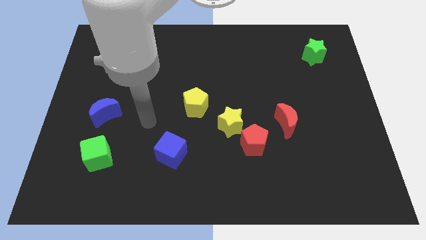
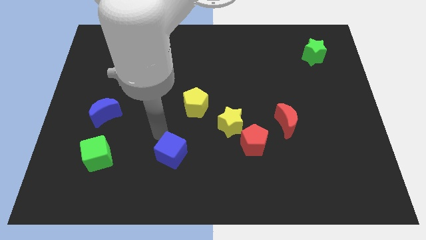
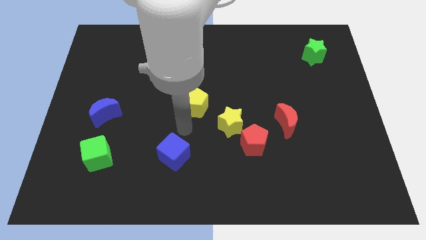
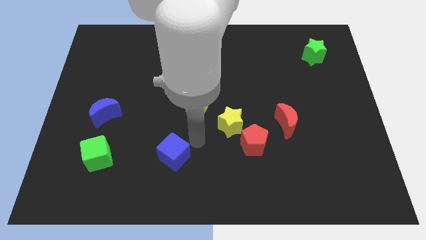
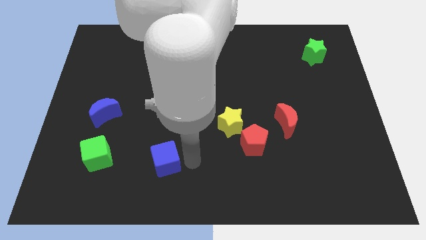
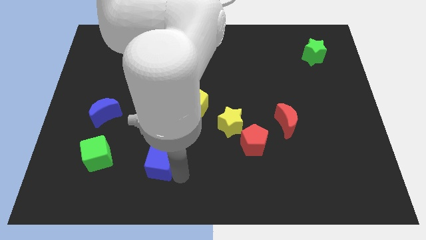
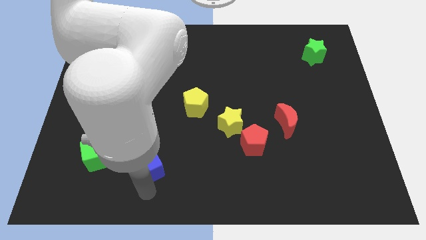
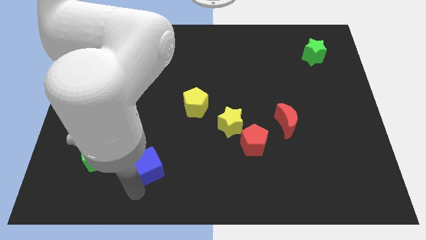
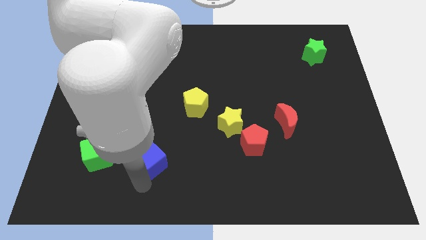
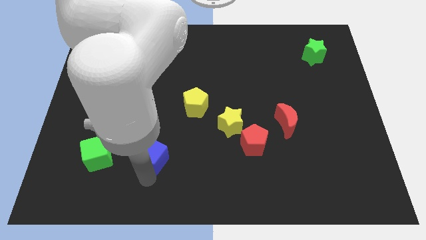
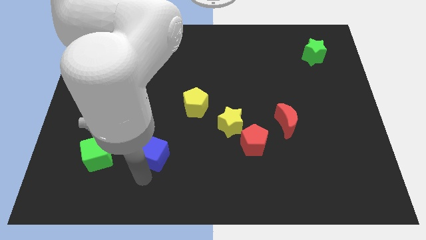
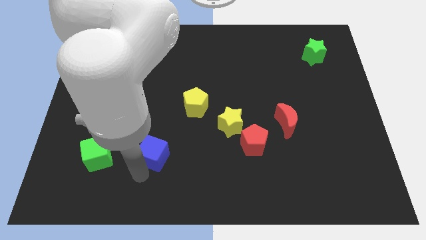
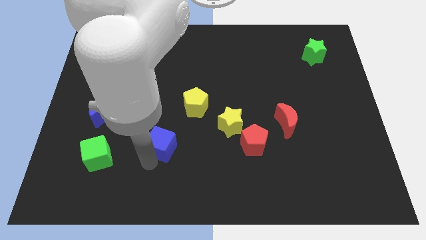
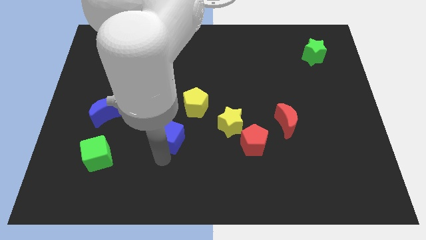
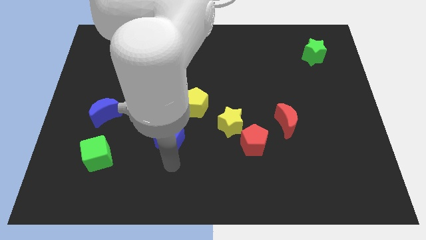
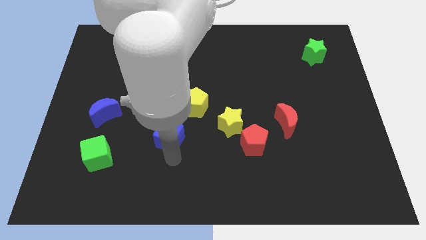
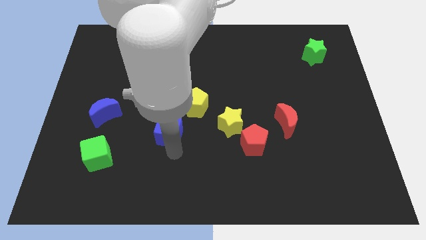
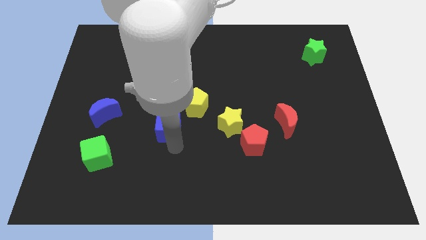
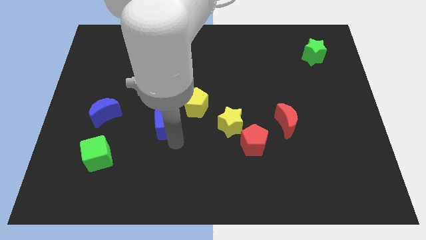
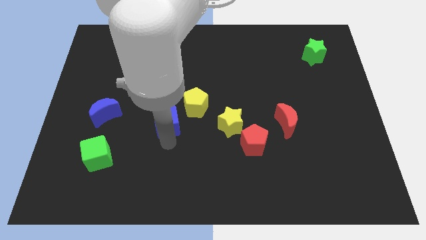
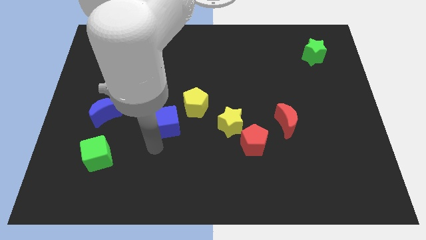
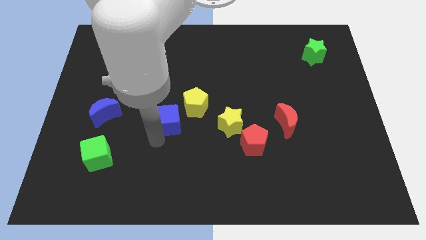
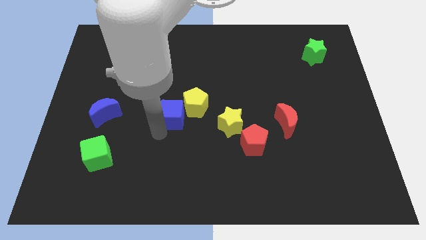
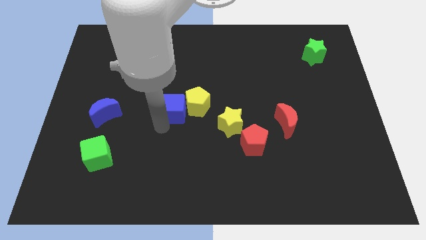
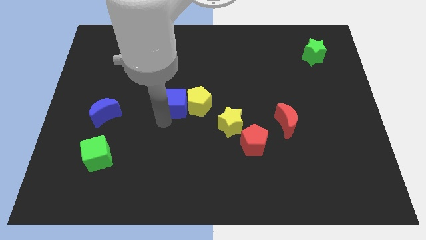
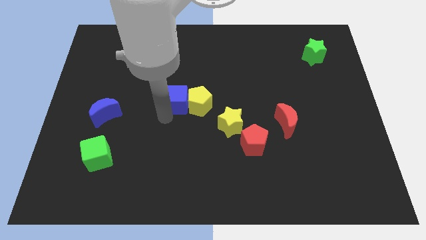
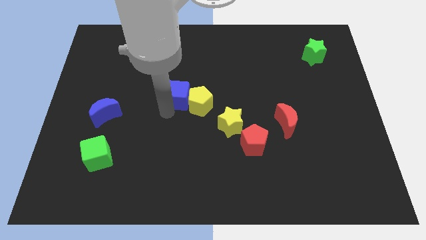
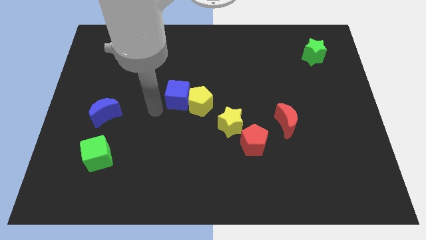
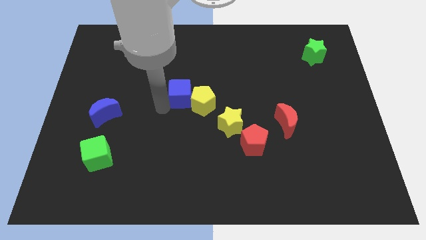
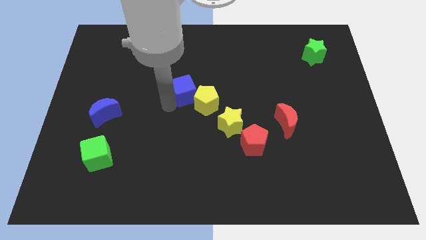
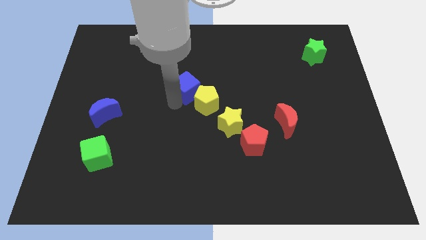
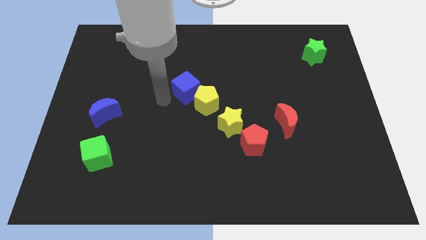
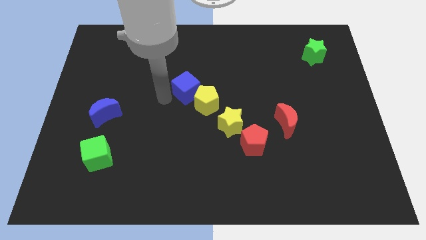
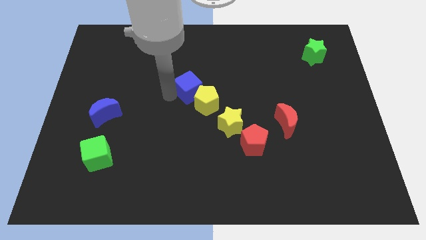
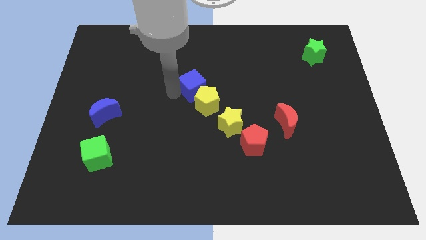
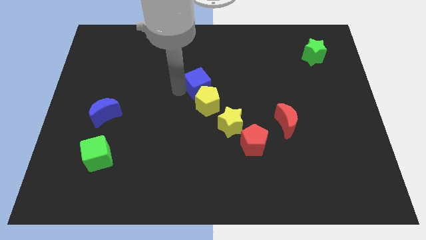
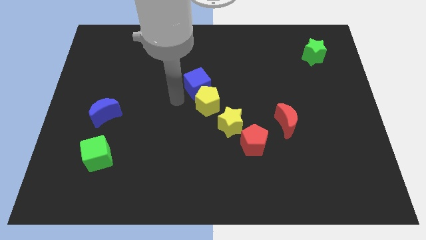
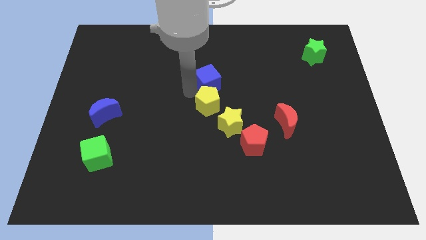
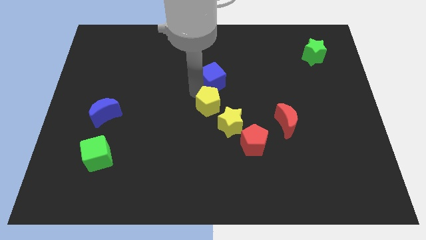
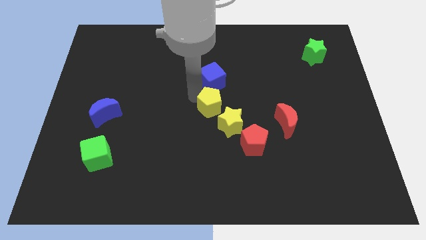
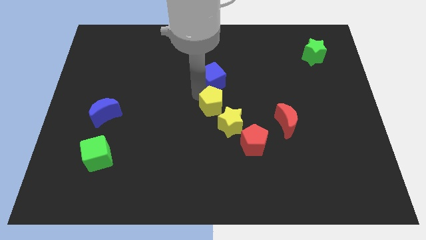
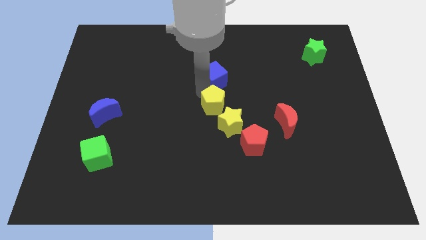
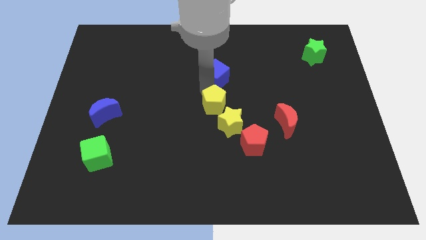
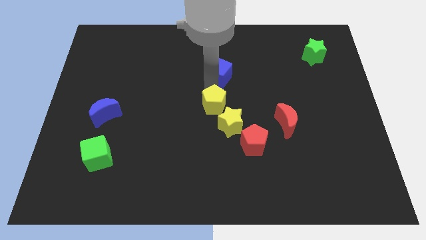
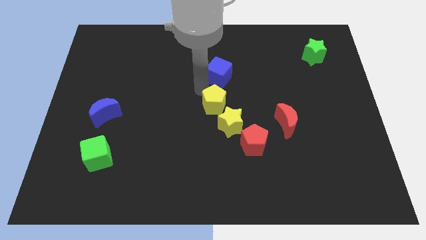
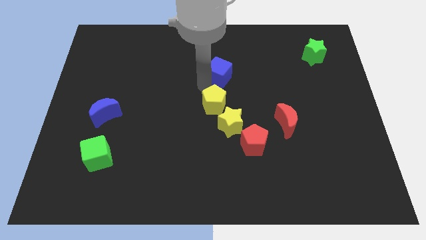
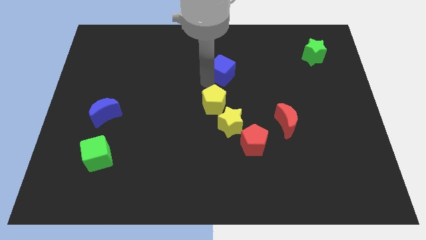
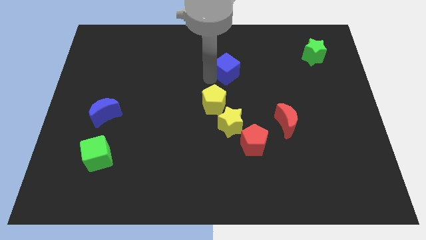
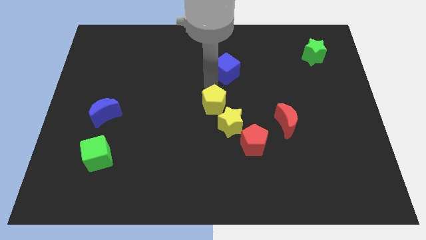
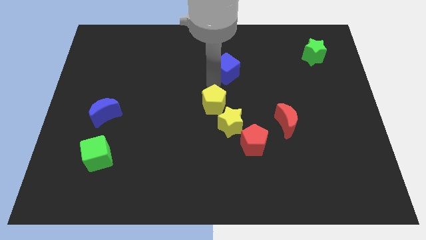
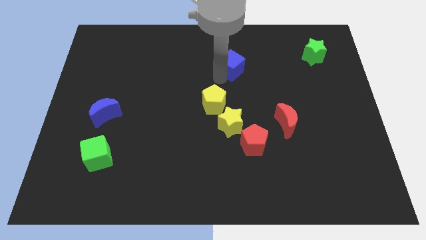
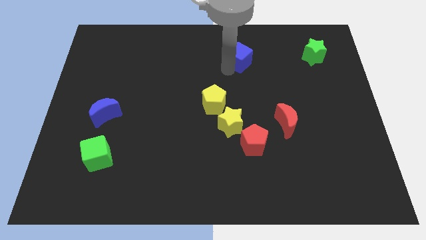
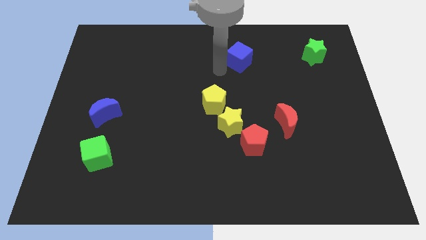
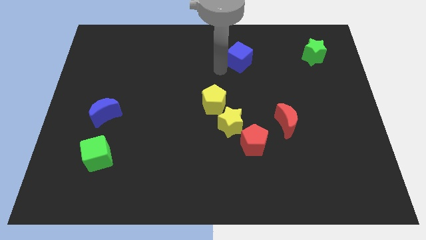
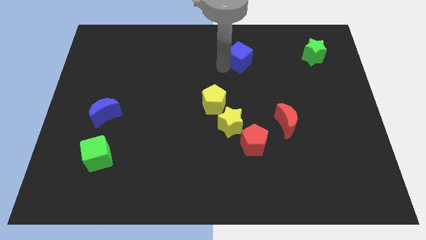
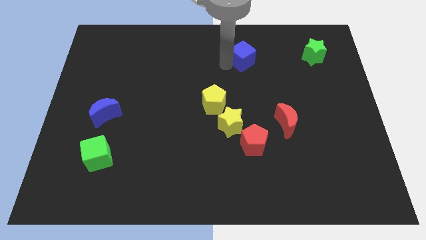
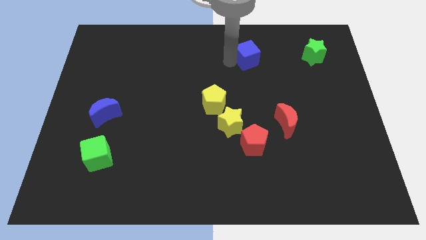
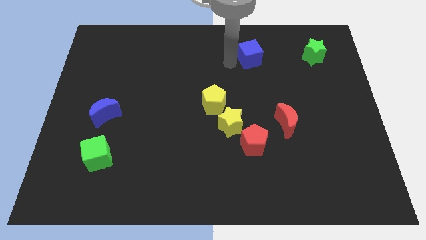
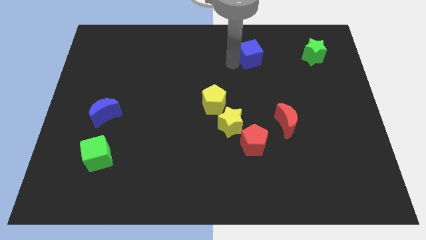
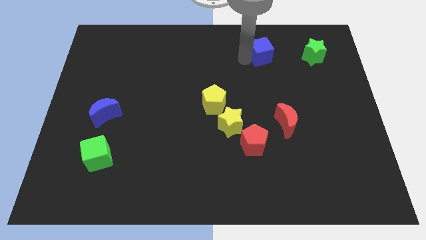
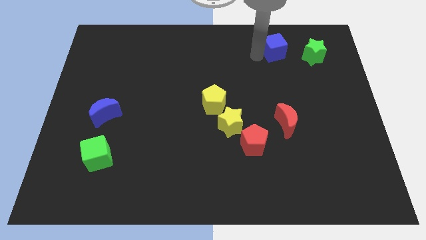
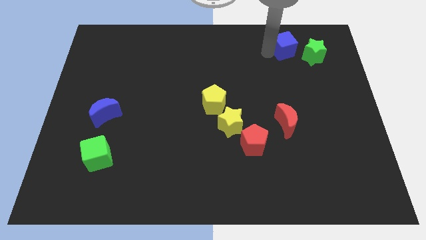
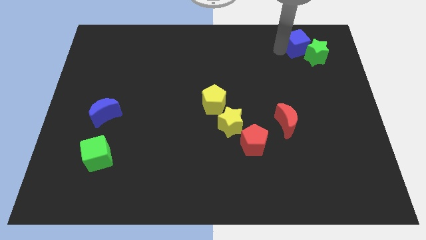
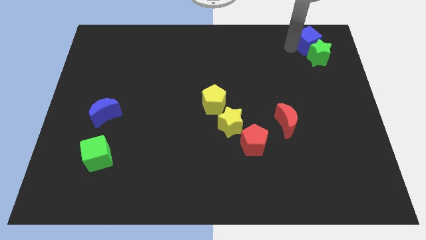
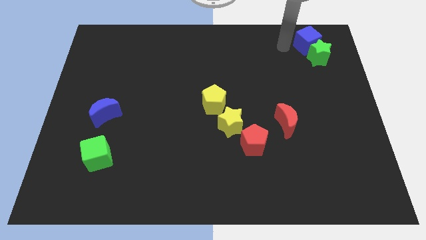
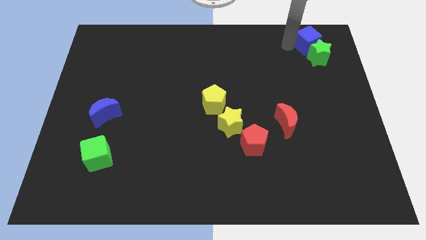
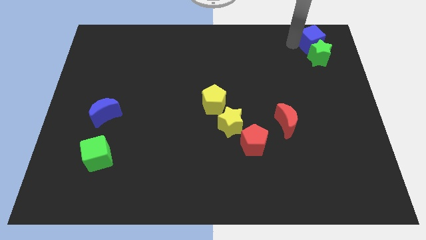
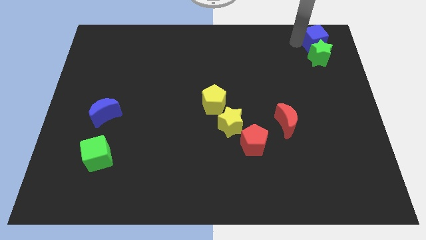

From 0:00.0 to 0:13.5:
put the blue cube to the top right
